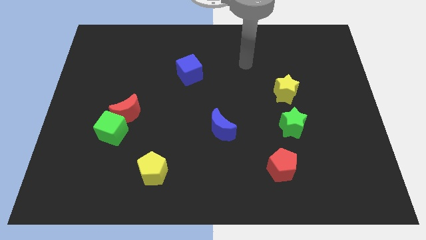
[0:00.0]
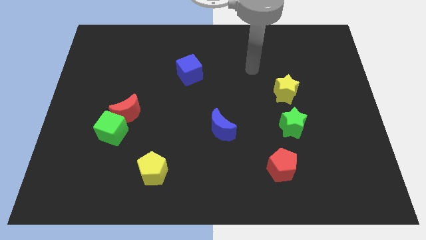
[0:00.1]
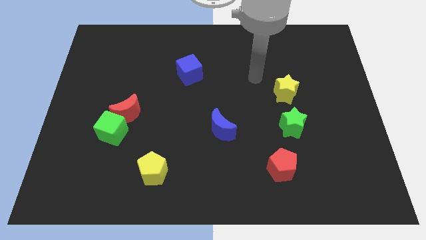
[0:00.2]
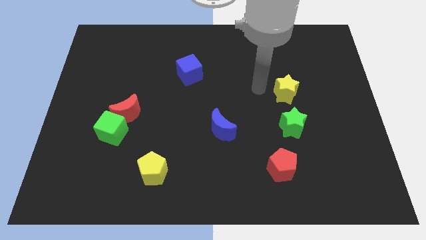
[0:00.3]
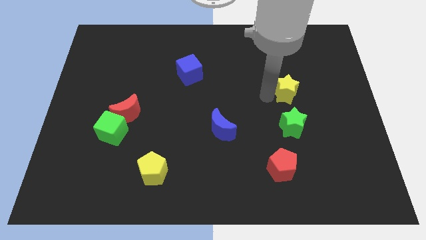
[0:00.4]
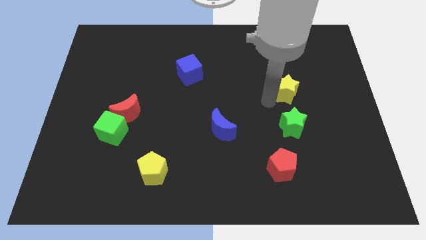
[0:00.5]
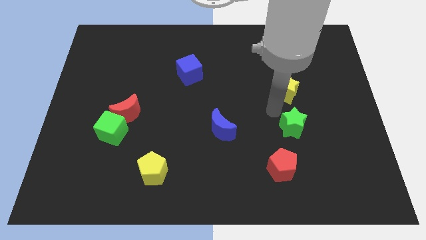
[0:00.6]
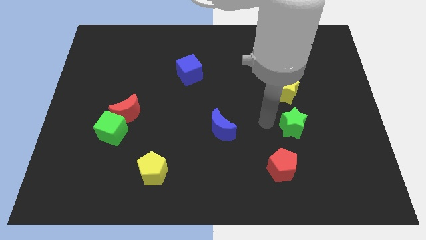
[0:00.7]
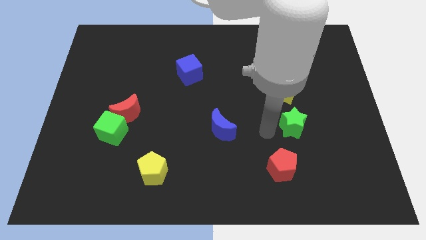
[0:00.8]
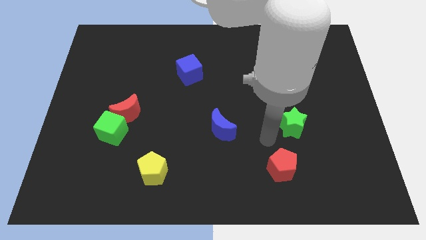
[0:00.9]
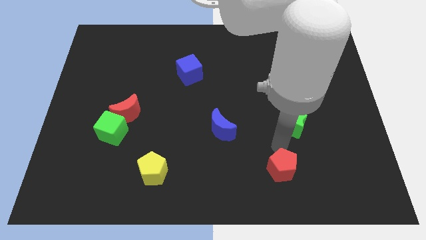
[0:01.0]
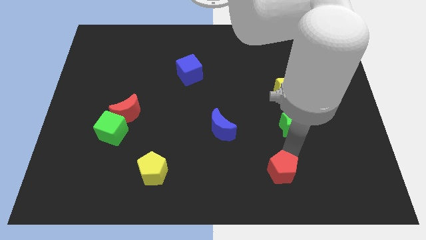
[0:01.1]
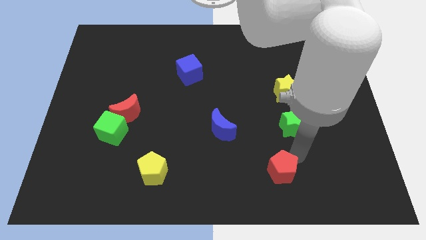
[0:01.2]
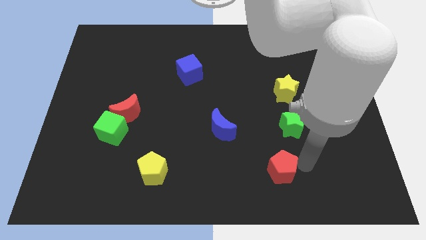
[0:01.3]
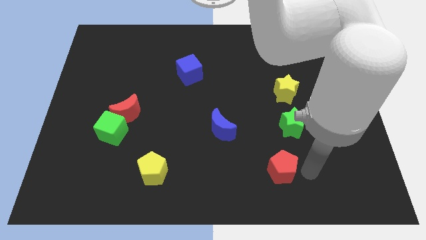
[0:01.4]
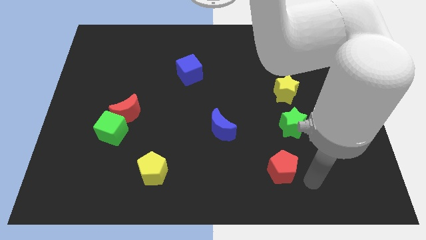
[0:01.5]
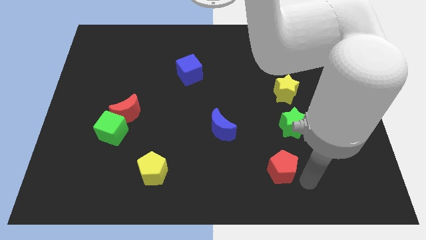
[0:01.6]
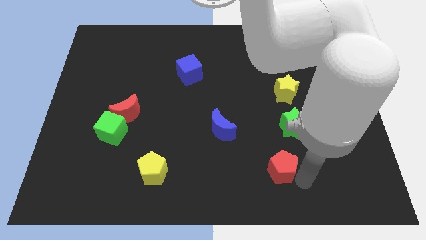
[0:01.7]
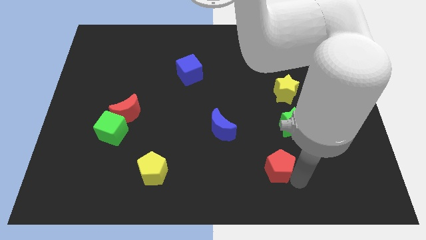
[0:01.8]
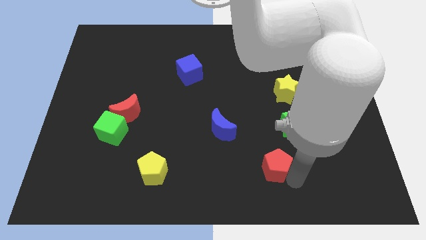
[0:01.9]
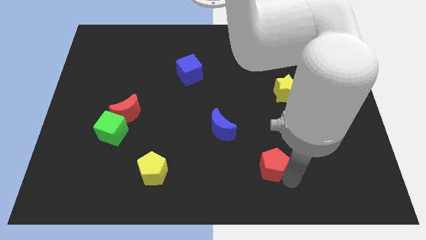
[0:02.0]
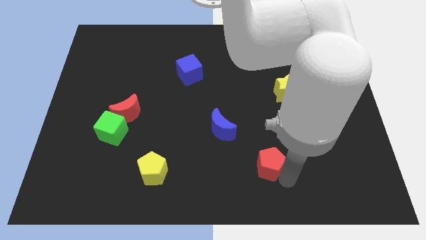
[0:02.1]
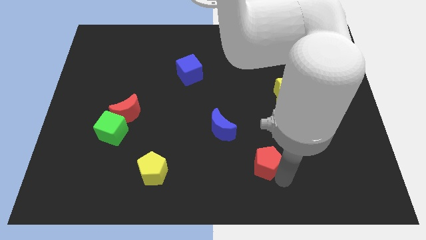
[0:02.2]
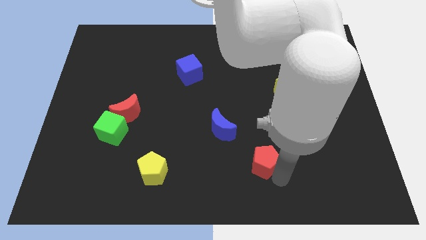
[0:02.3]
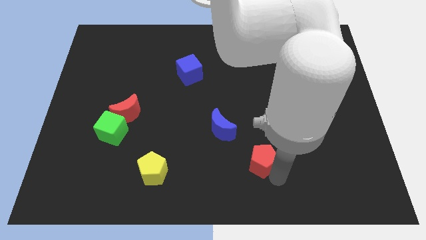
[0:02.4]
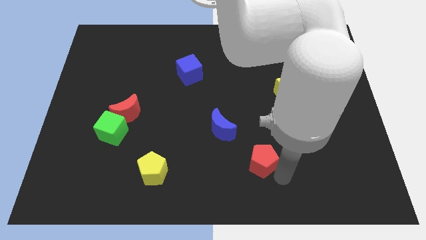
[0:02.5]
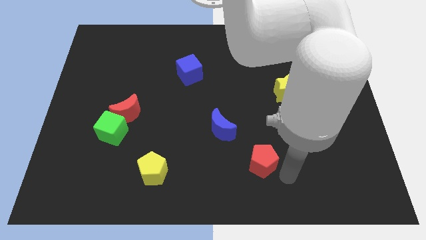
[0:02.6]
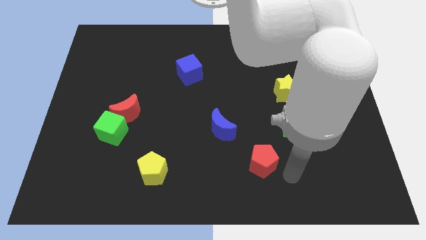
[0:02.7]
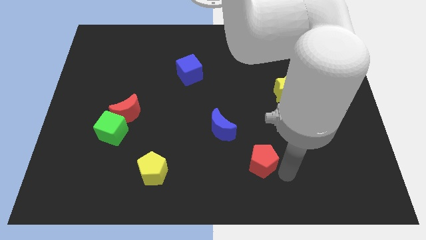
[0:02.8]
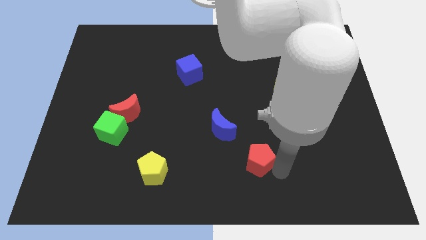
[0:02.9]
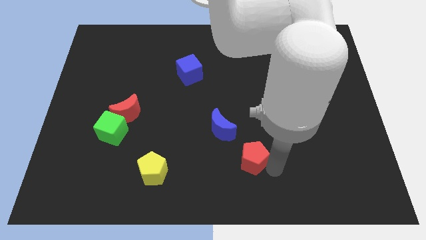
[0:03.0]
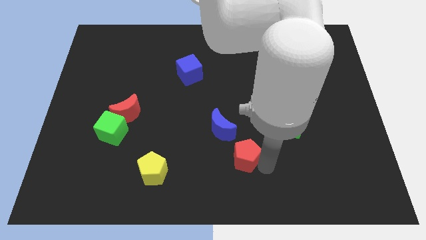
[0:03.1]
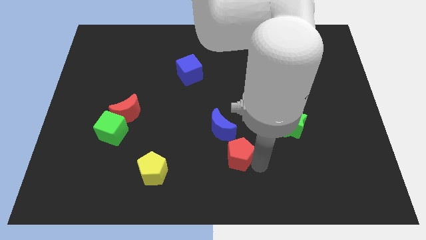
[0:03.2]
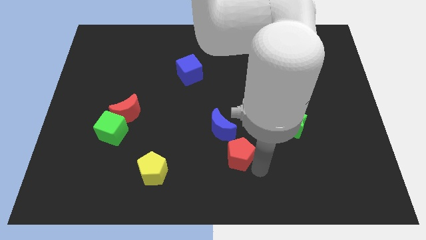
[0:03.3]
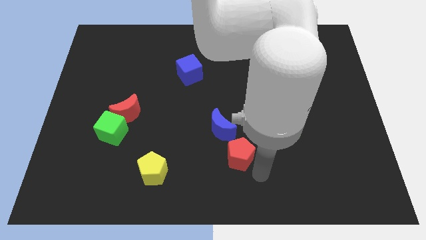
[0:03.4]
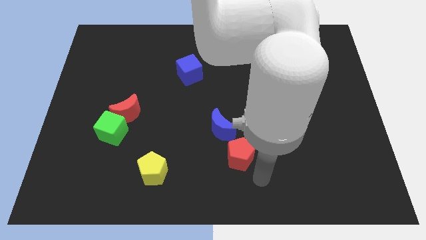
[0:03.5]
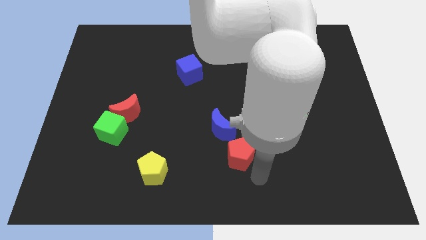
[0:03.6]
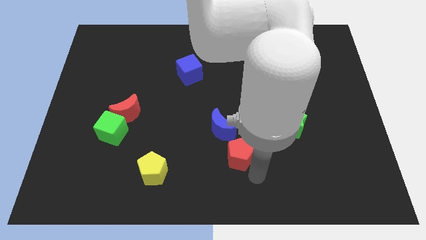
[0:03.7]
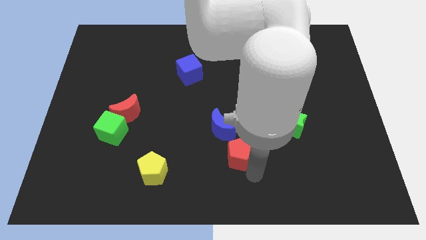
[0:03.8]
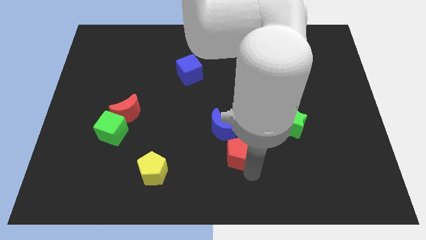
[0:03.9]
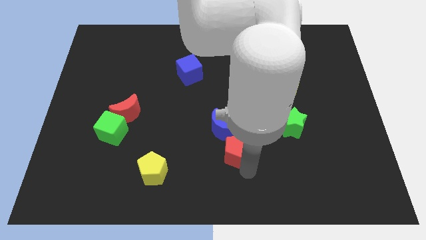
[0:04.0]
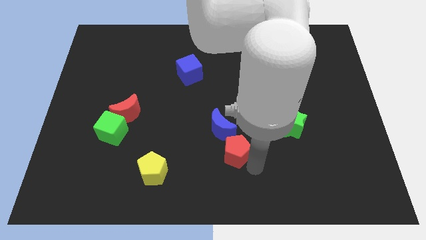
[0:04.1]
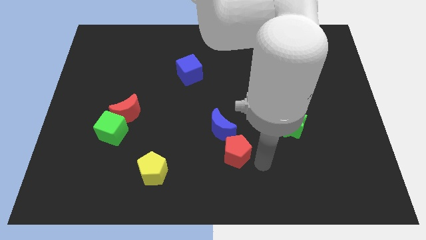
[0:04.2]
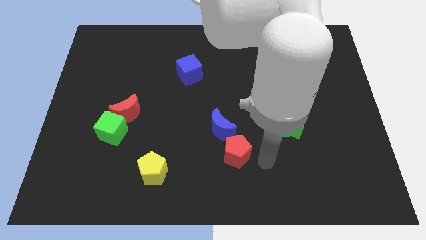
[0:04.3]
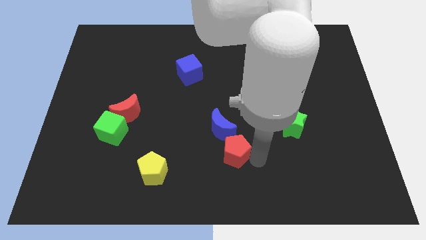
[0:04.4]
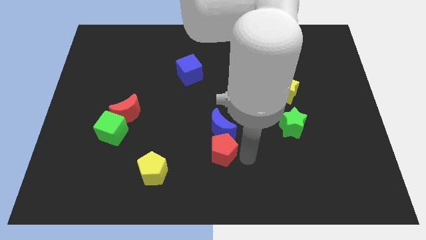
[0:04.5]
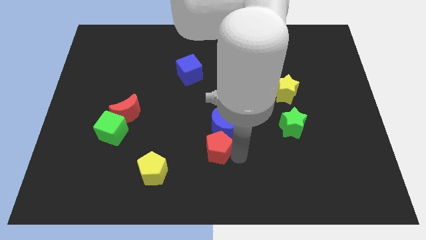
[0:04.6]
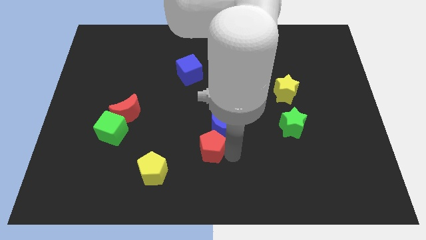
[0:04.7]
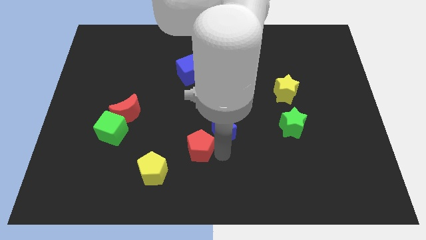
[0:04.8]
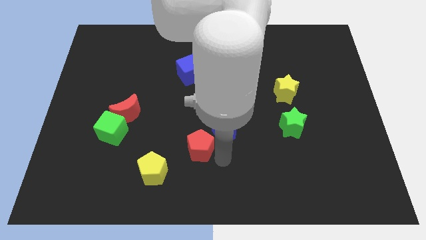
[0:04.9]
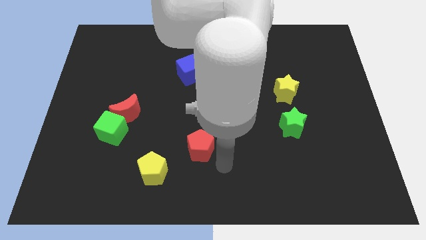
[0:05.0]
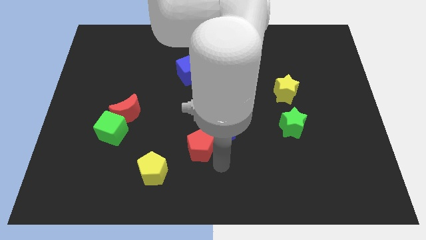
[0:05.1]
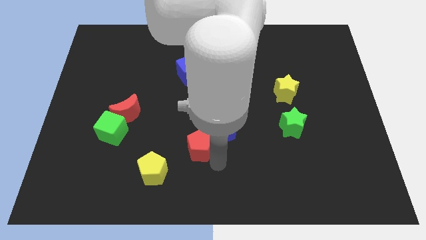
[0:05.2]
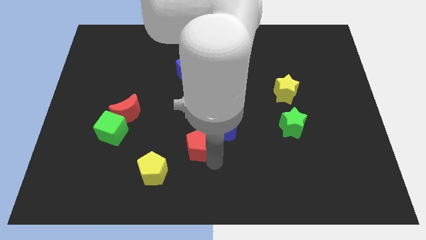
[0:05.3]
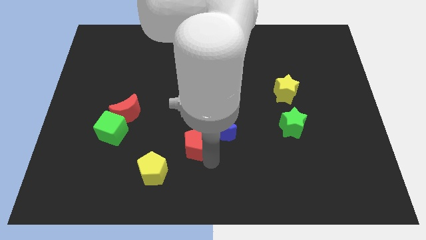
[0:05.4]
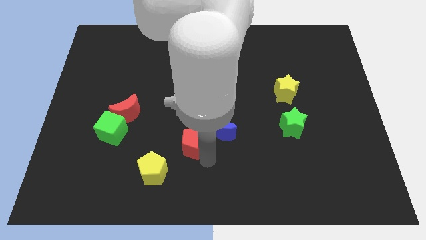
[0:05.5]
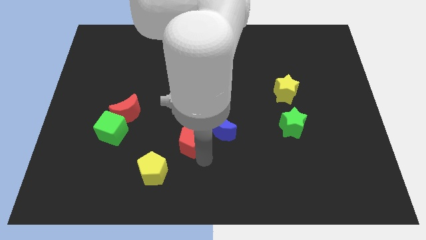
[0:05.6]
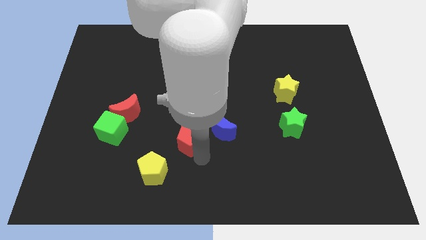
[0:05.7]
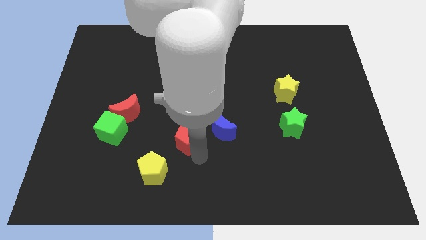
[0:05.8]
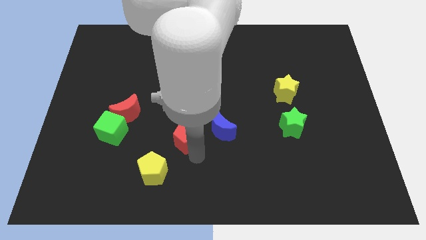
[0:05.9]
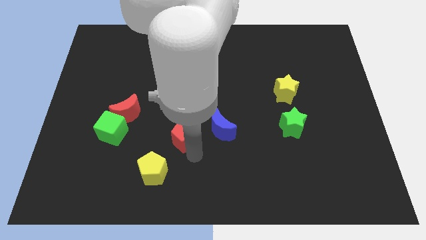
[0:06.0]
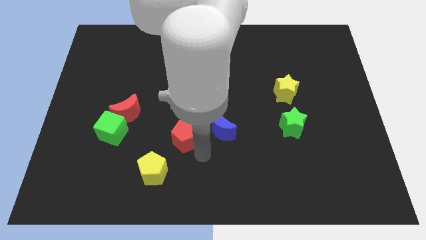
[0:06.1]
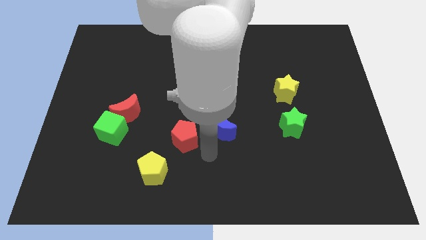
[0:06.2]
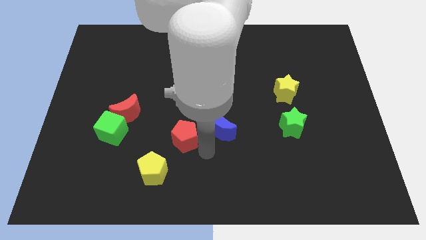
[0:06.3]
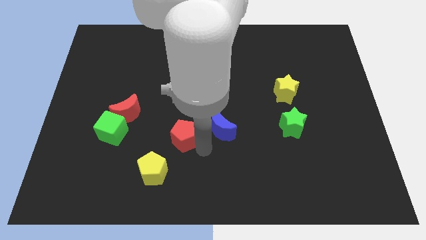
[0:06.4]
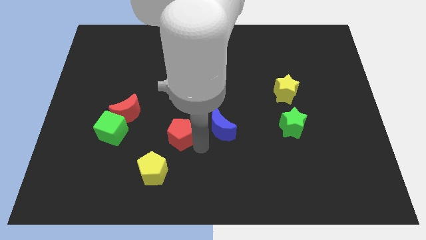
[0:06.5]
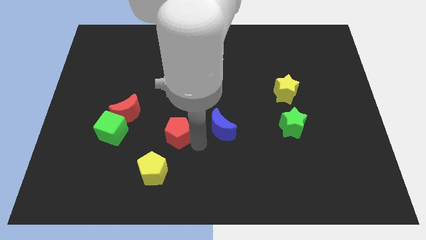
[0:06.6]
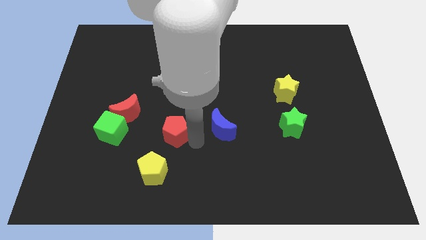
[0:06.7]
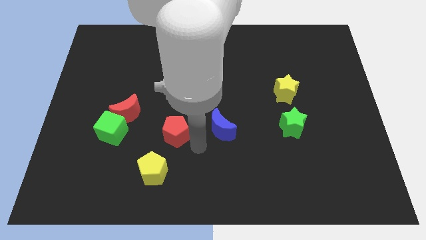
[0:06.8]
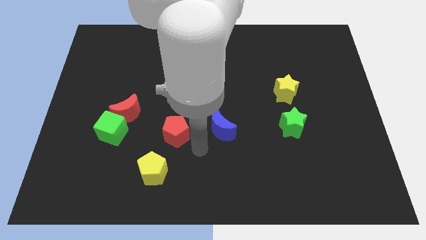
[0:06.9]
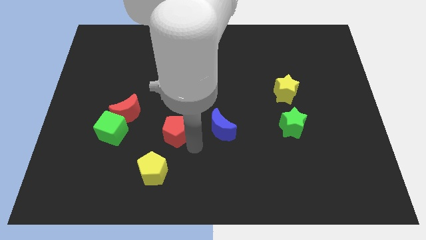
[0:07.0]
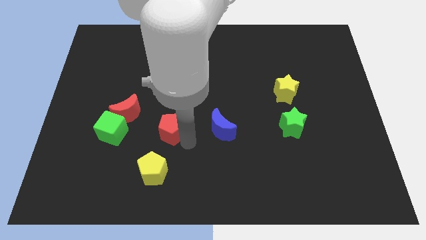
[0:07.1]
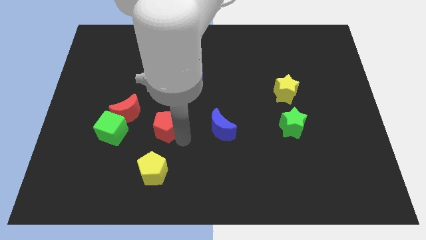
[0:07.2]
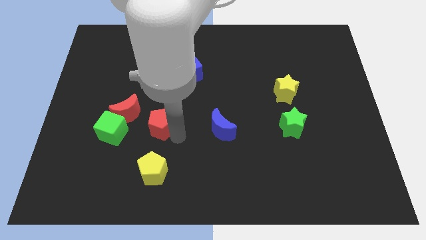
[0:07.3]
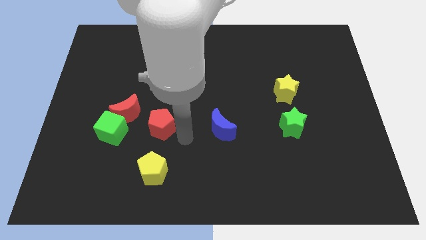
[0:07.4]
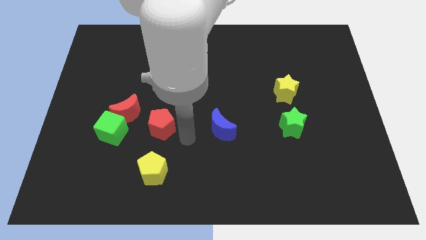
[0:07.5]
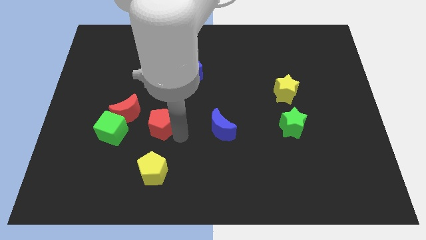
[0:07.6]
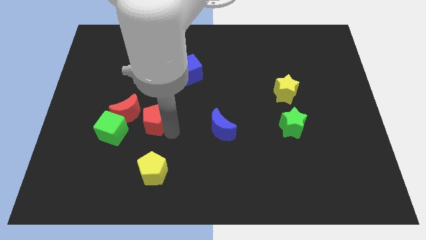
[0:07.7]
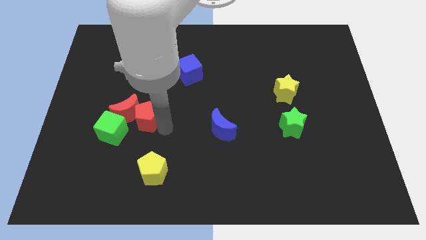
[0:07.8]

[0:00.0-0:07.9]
slide the red pentagon to the red moon
